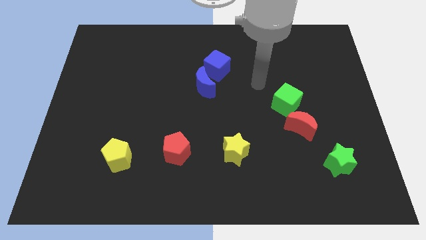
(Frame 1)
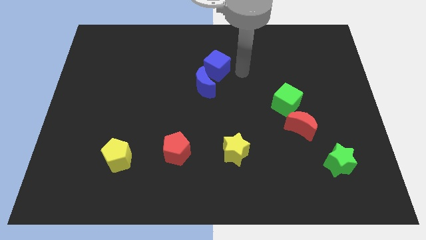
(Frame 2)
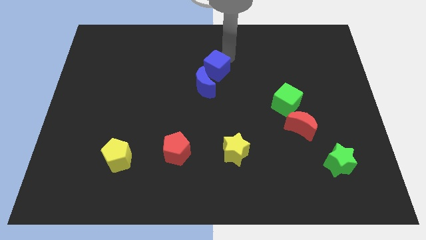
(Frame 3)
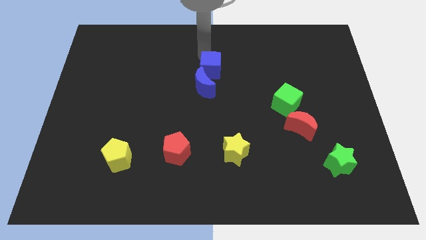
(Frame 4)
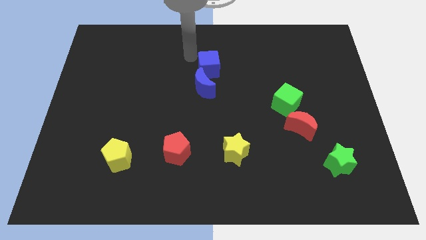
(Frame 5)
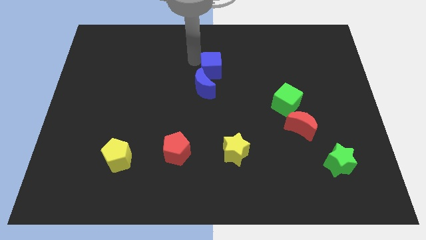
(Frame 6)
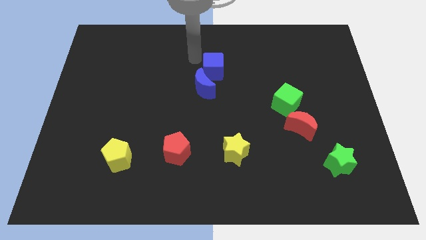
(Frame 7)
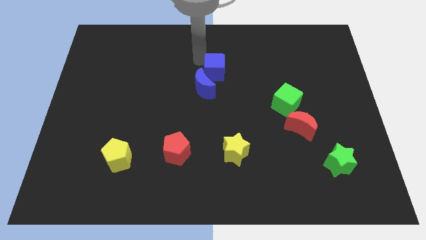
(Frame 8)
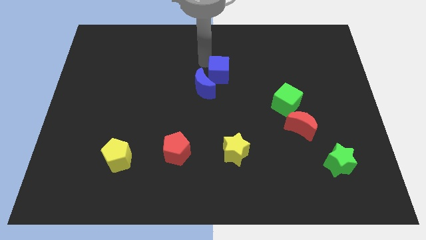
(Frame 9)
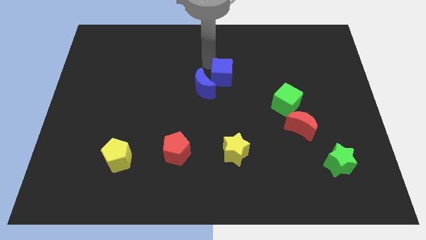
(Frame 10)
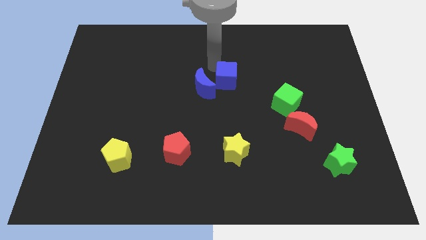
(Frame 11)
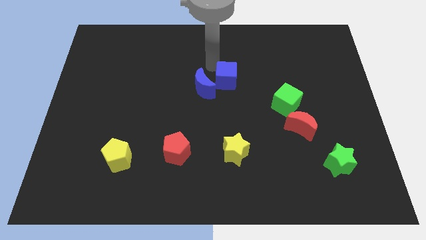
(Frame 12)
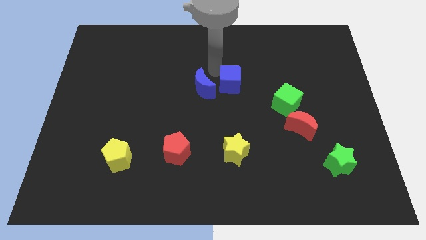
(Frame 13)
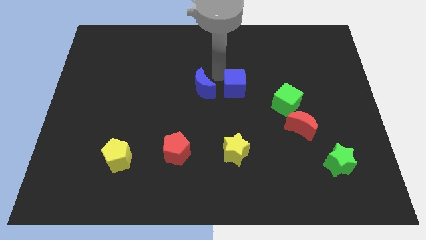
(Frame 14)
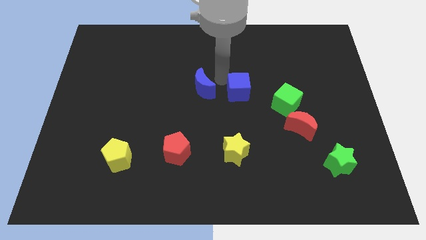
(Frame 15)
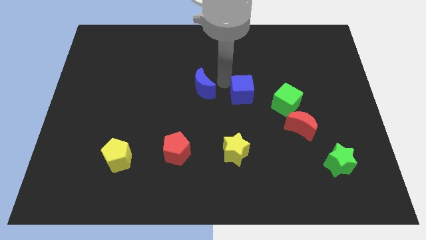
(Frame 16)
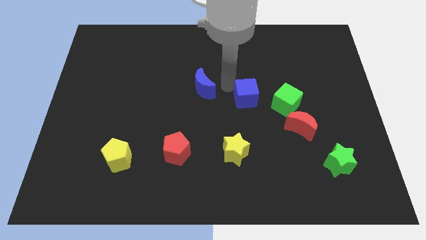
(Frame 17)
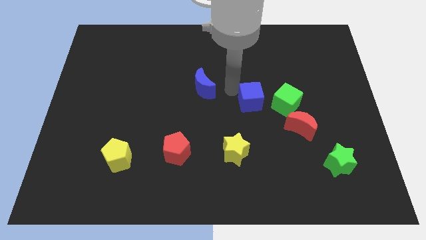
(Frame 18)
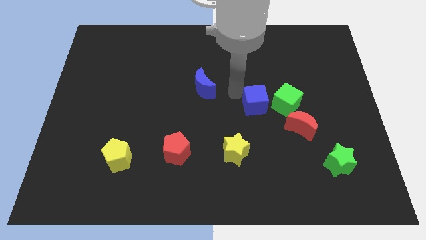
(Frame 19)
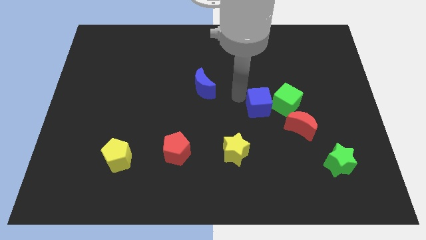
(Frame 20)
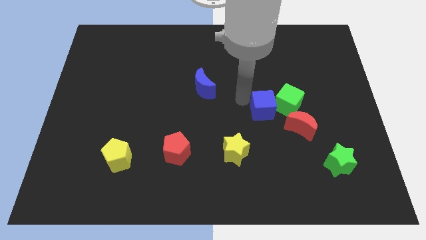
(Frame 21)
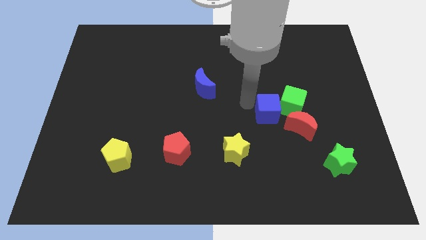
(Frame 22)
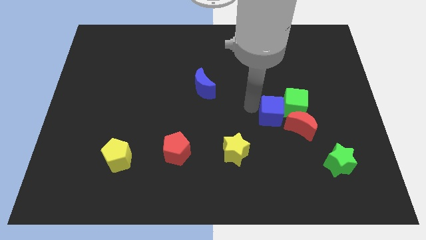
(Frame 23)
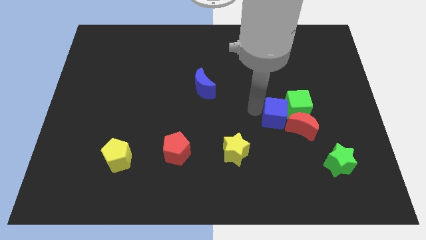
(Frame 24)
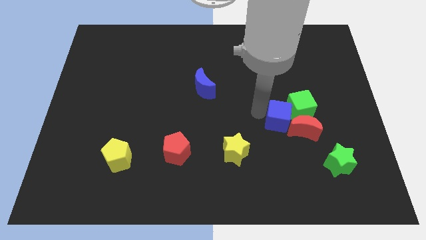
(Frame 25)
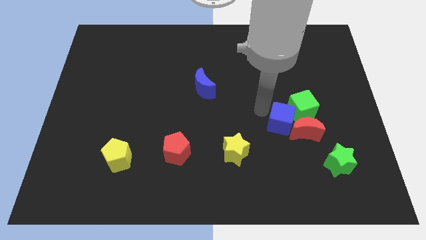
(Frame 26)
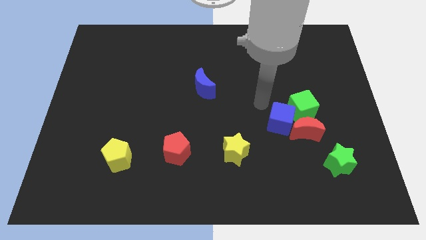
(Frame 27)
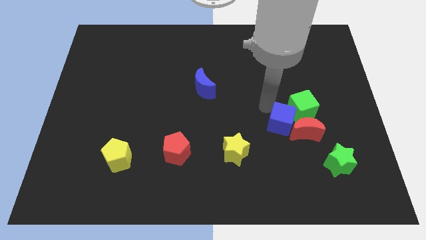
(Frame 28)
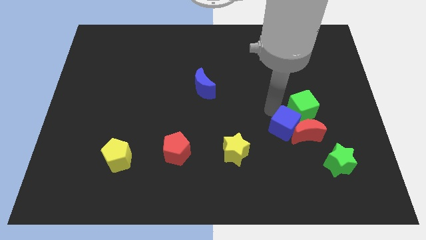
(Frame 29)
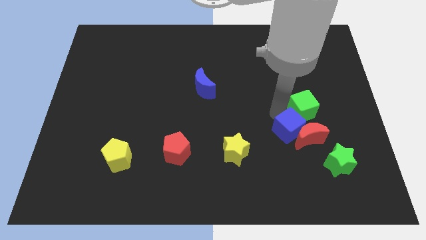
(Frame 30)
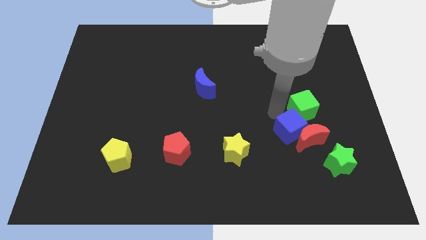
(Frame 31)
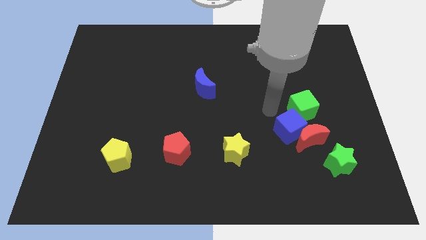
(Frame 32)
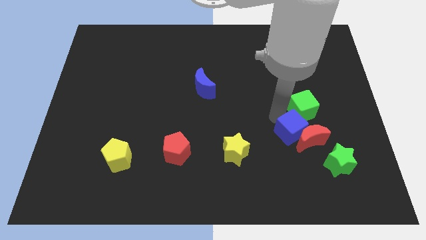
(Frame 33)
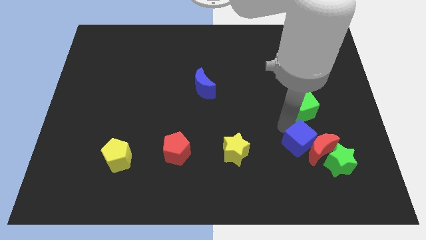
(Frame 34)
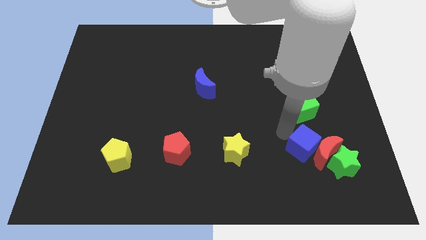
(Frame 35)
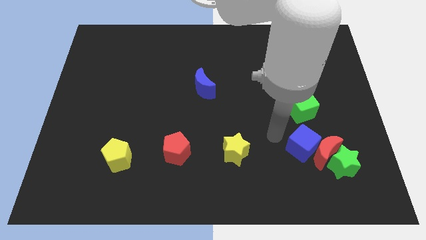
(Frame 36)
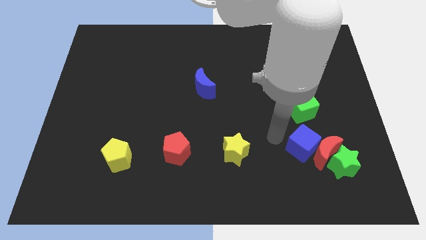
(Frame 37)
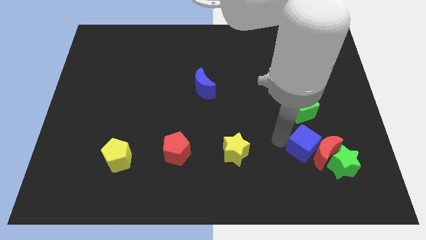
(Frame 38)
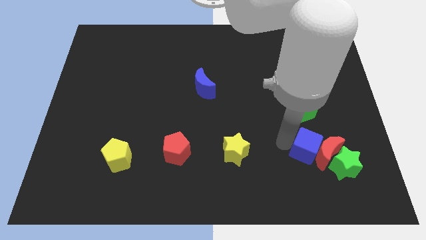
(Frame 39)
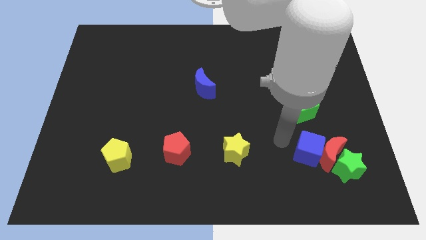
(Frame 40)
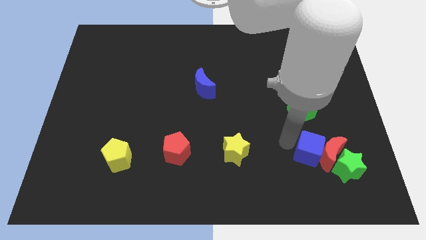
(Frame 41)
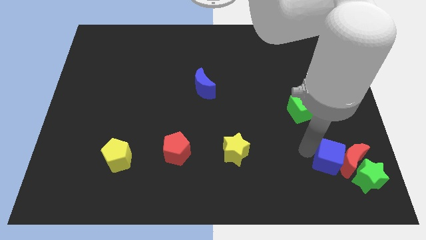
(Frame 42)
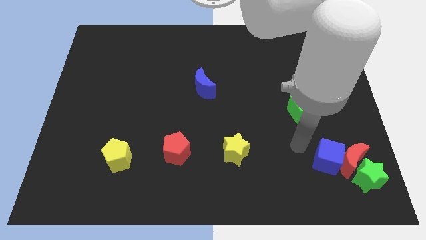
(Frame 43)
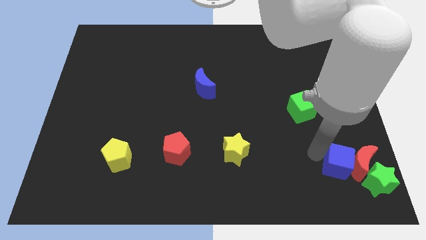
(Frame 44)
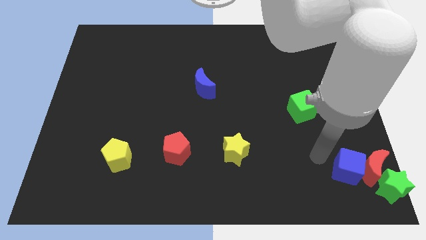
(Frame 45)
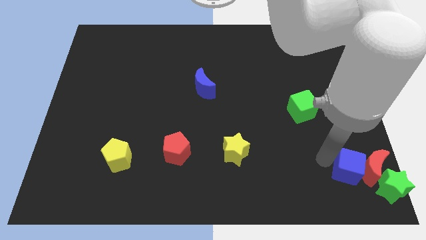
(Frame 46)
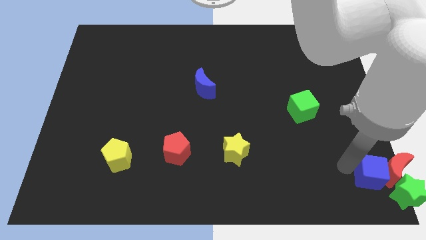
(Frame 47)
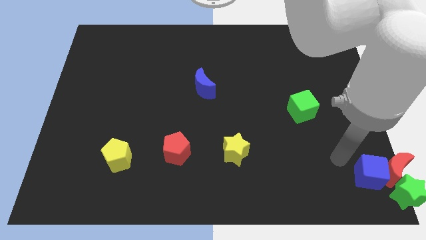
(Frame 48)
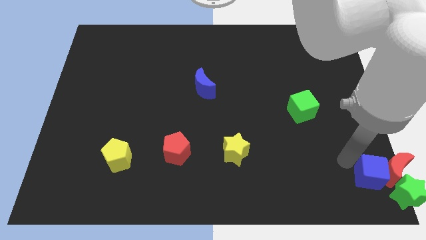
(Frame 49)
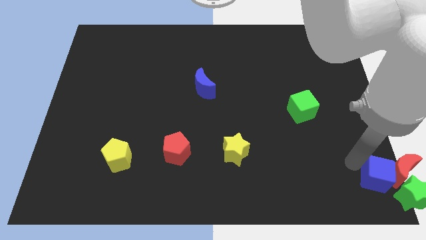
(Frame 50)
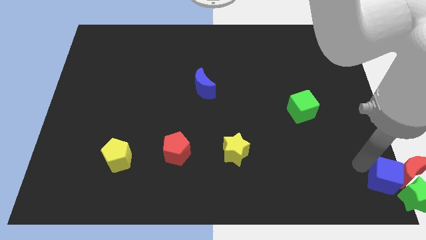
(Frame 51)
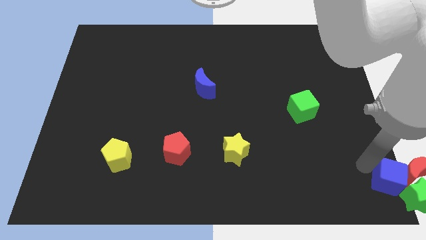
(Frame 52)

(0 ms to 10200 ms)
put the blue cube next to the green star

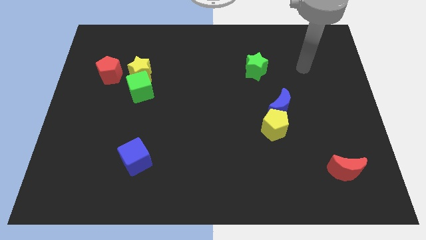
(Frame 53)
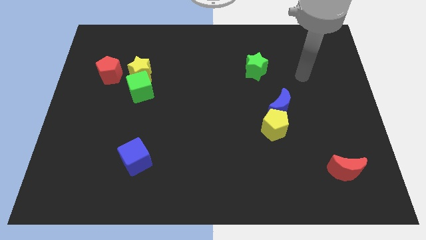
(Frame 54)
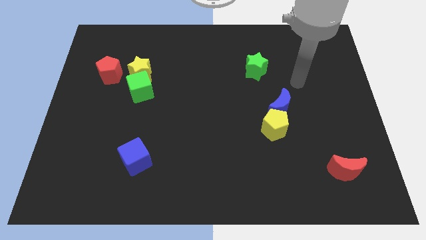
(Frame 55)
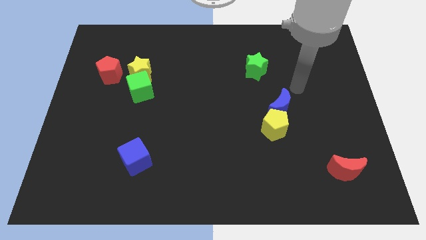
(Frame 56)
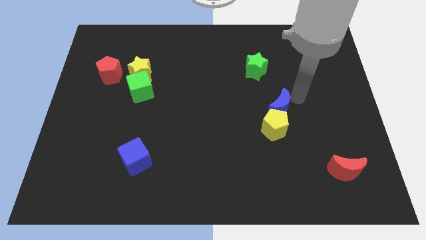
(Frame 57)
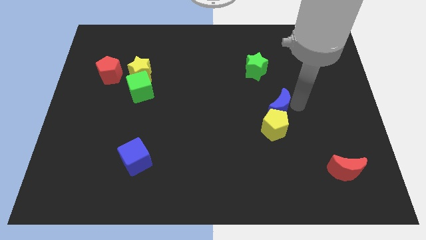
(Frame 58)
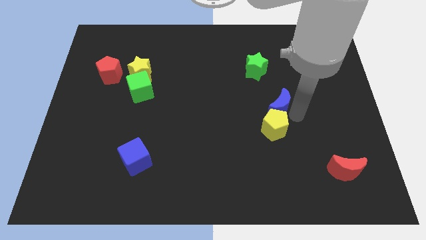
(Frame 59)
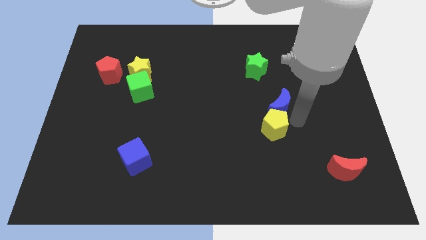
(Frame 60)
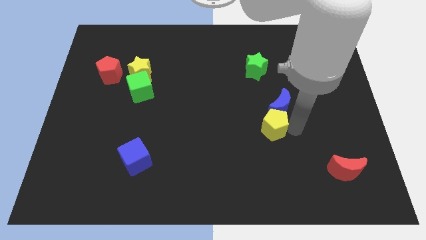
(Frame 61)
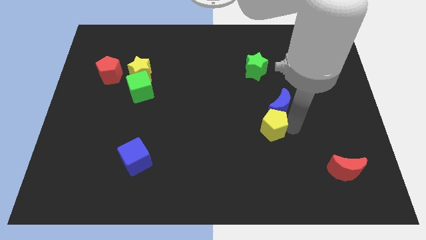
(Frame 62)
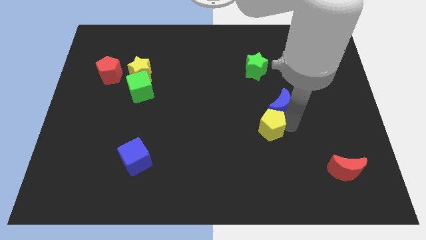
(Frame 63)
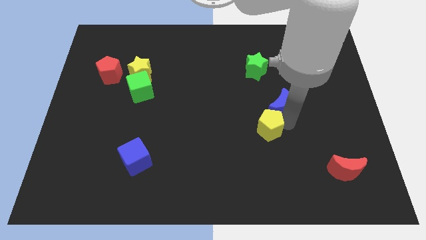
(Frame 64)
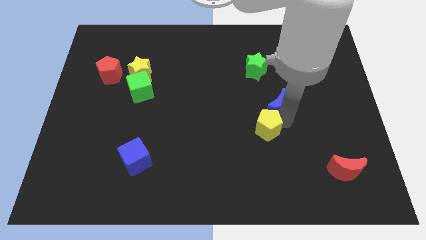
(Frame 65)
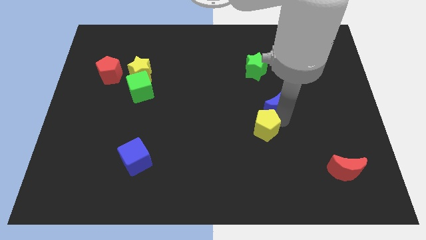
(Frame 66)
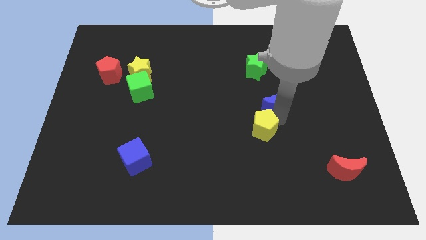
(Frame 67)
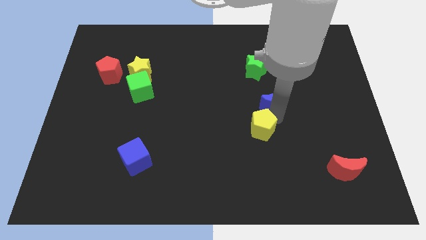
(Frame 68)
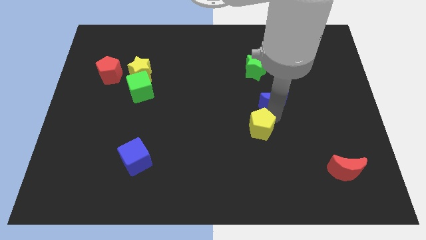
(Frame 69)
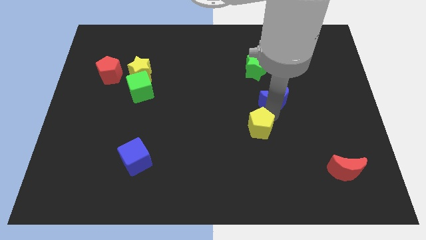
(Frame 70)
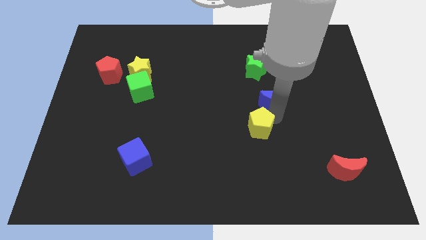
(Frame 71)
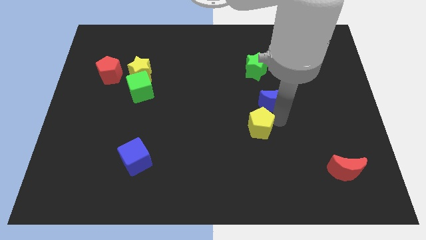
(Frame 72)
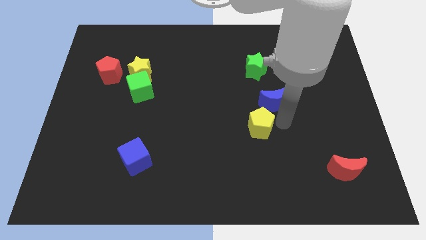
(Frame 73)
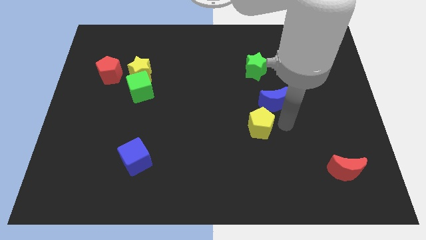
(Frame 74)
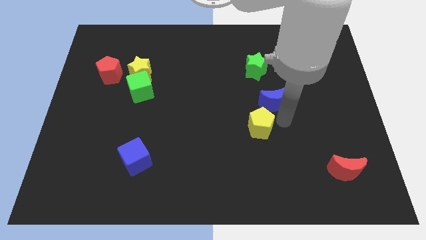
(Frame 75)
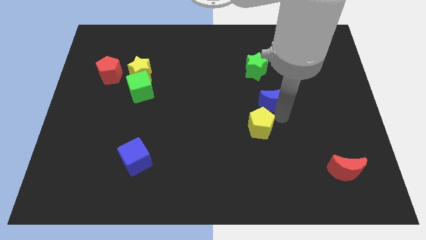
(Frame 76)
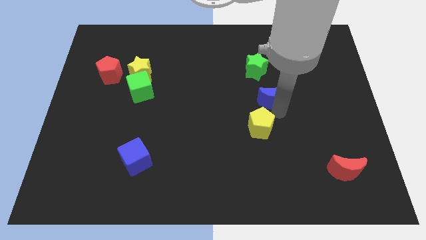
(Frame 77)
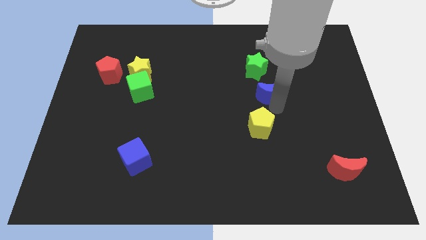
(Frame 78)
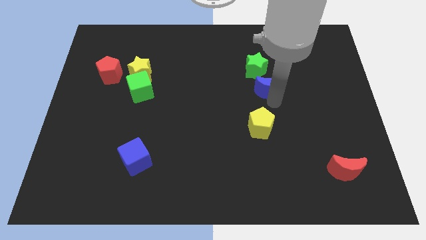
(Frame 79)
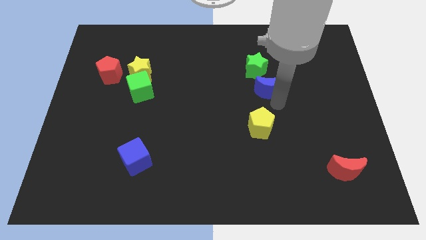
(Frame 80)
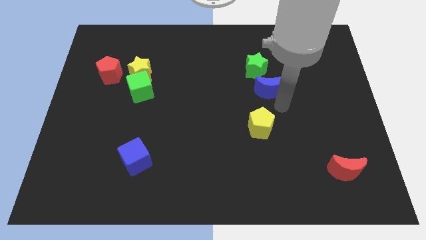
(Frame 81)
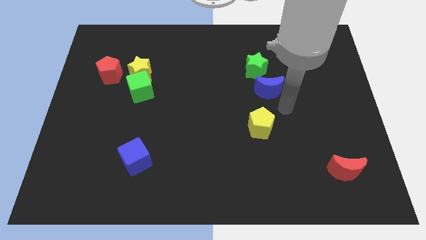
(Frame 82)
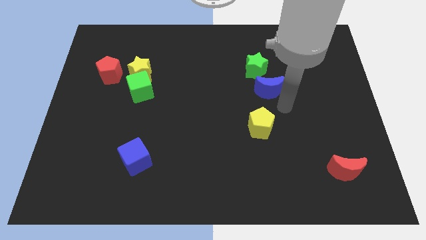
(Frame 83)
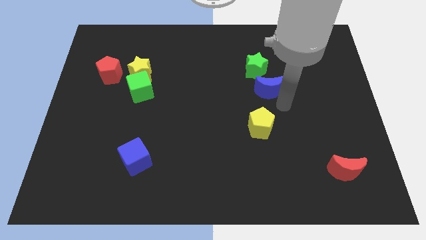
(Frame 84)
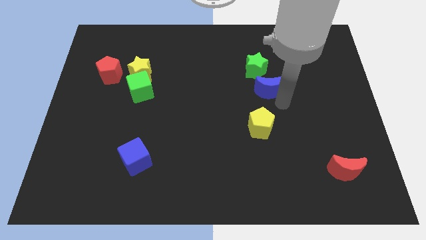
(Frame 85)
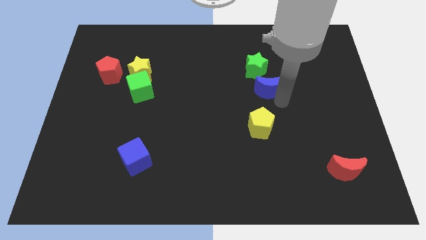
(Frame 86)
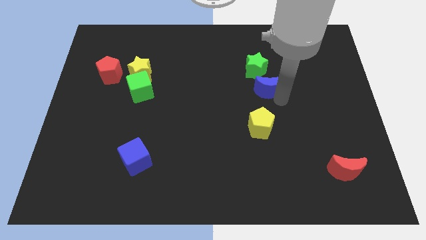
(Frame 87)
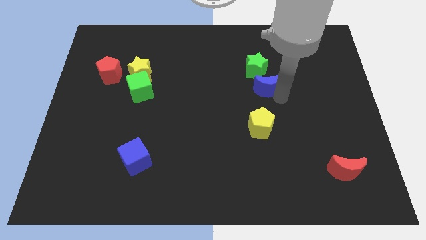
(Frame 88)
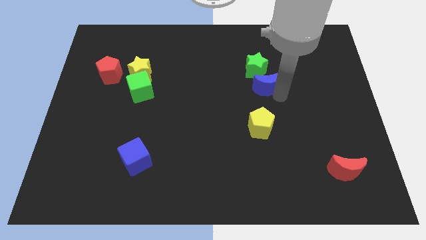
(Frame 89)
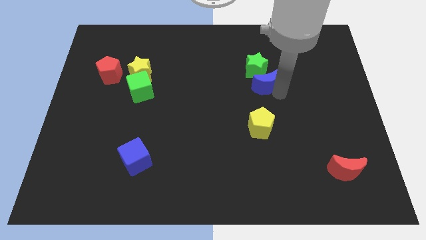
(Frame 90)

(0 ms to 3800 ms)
push the blue moon to the green star
